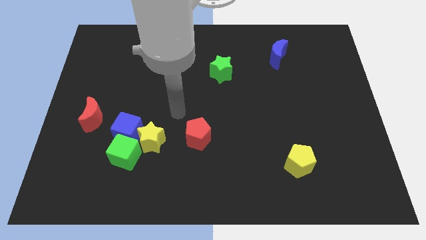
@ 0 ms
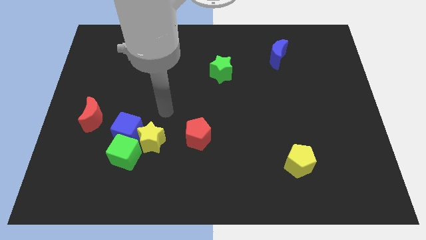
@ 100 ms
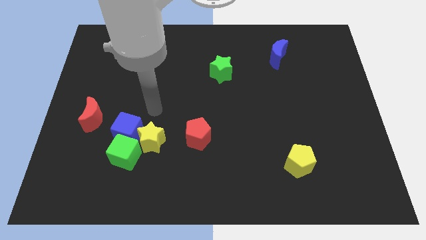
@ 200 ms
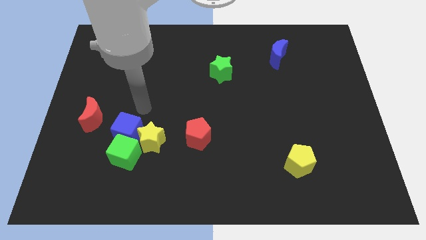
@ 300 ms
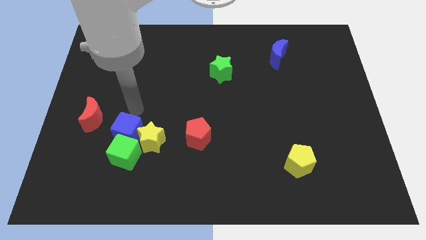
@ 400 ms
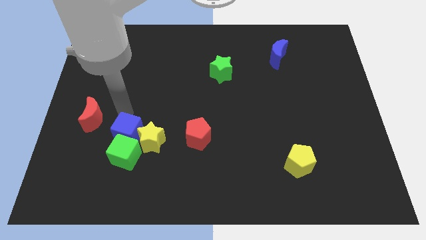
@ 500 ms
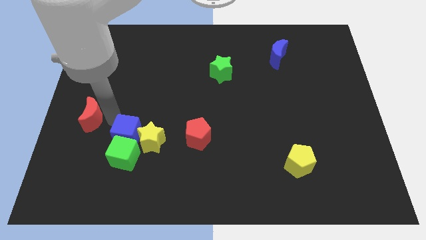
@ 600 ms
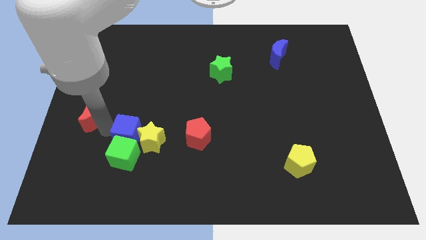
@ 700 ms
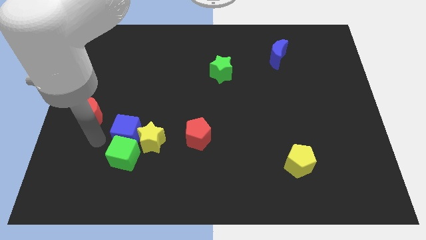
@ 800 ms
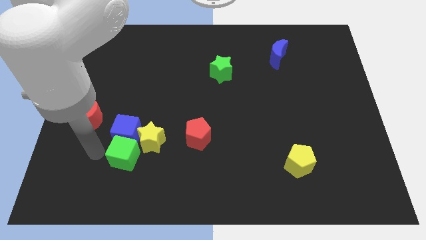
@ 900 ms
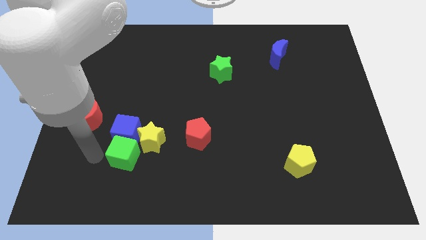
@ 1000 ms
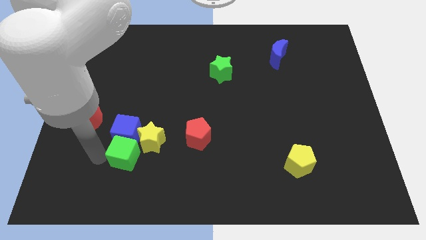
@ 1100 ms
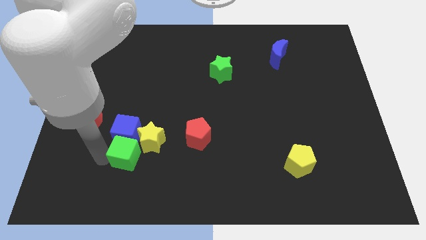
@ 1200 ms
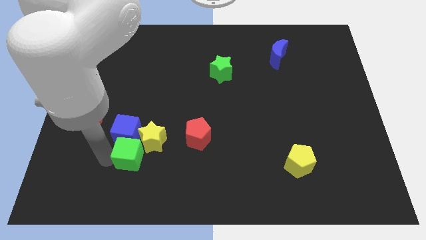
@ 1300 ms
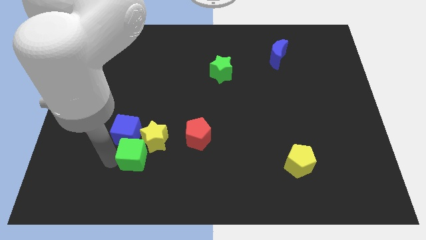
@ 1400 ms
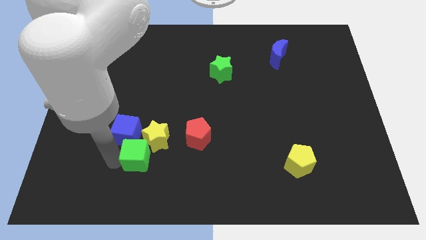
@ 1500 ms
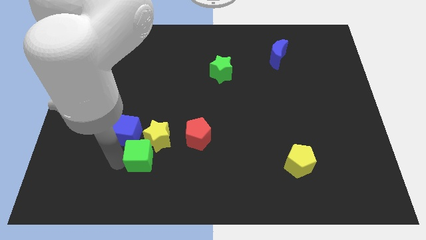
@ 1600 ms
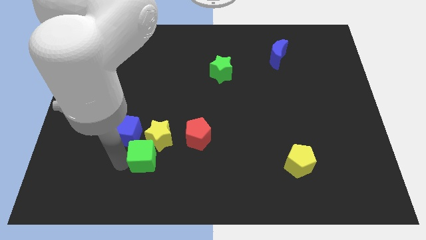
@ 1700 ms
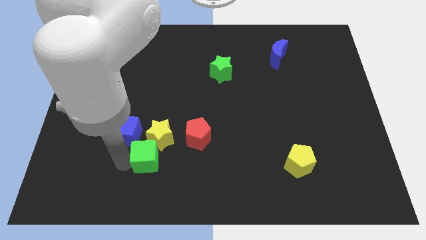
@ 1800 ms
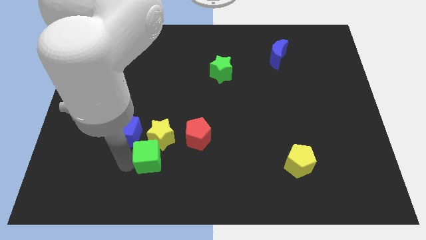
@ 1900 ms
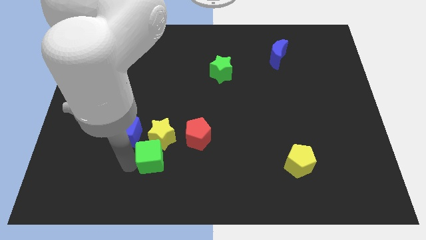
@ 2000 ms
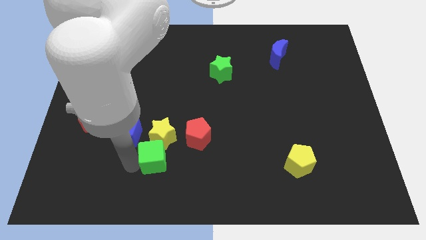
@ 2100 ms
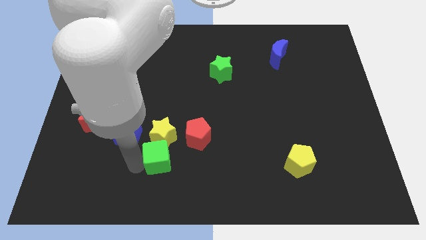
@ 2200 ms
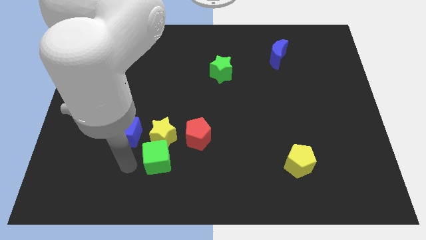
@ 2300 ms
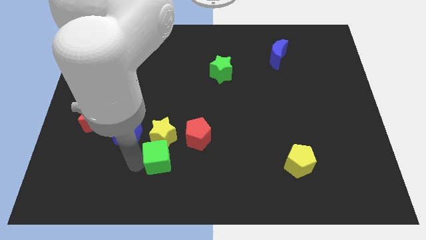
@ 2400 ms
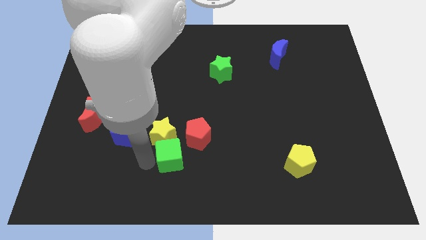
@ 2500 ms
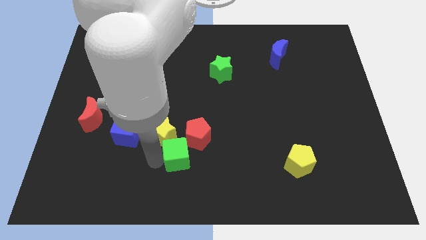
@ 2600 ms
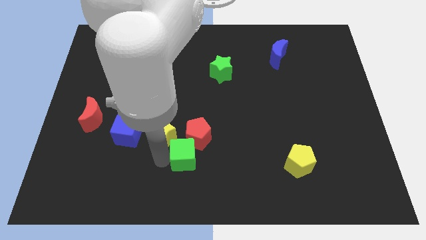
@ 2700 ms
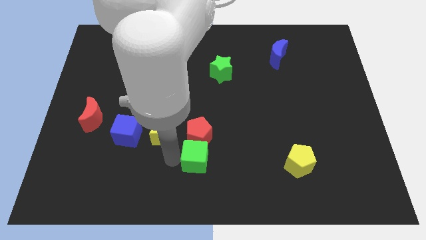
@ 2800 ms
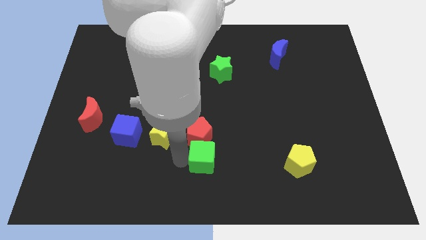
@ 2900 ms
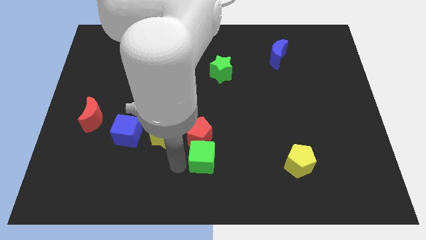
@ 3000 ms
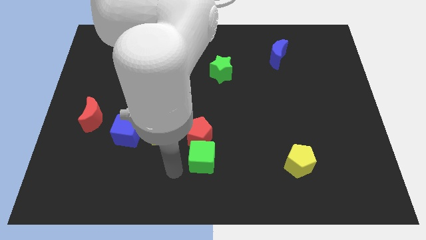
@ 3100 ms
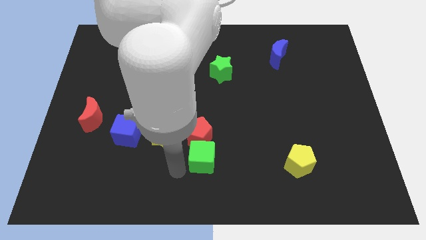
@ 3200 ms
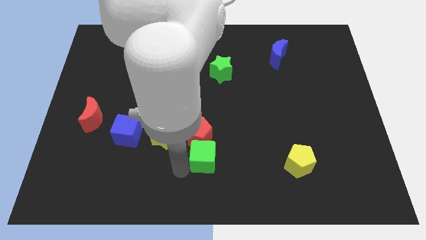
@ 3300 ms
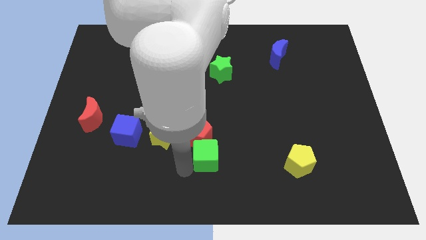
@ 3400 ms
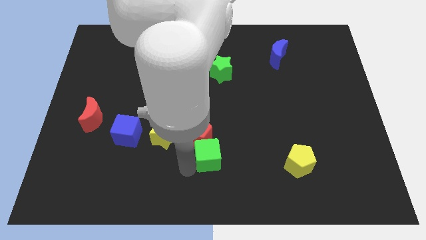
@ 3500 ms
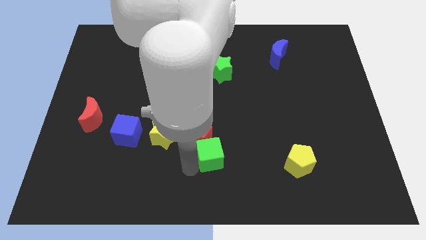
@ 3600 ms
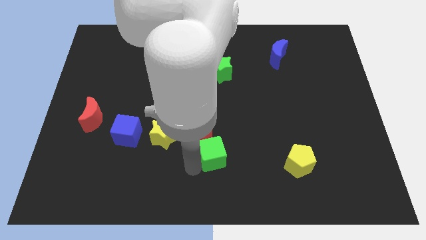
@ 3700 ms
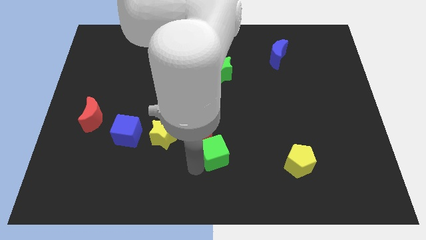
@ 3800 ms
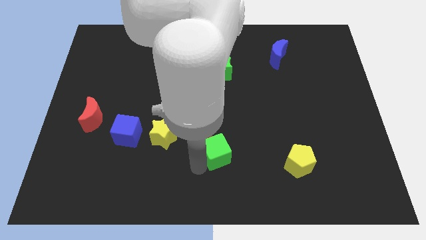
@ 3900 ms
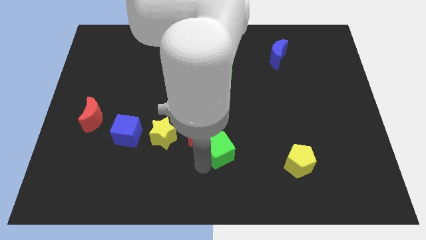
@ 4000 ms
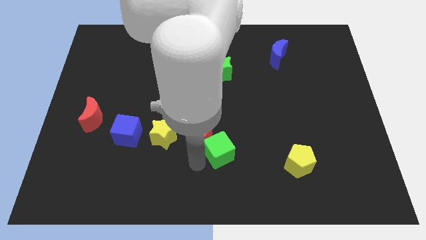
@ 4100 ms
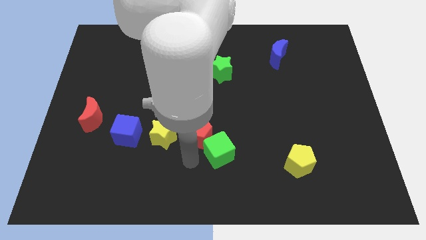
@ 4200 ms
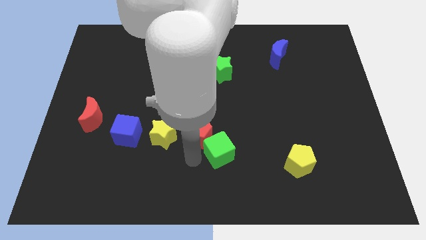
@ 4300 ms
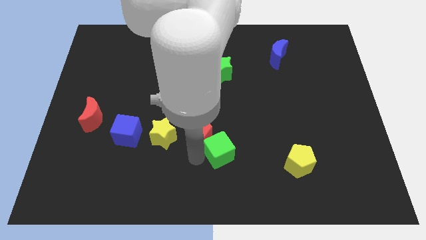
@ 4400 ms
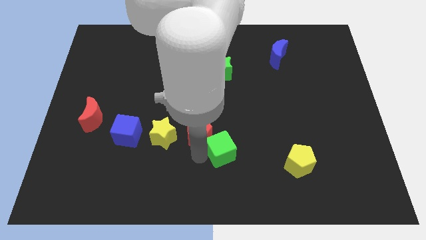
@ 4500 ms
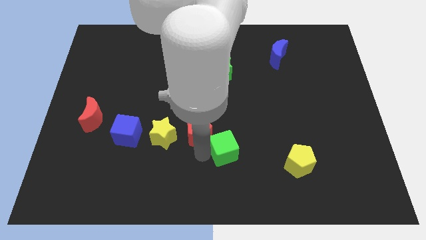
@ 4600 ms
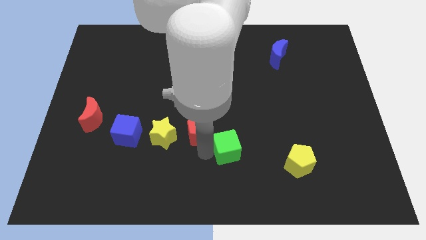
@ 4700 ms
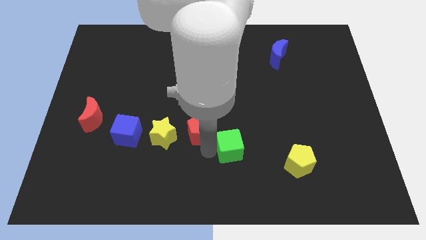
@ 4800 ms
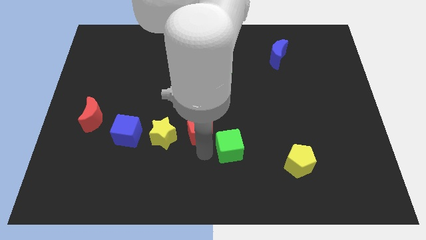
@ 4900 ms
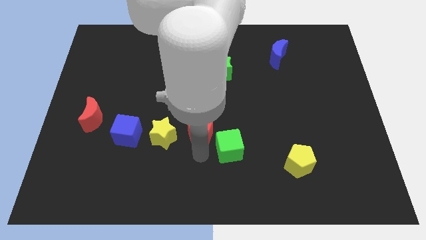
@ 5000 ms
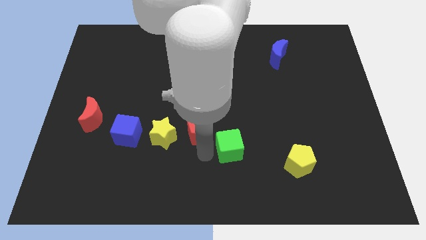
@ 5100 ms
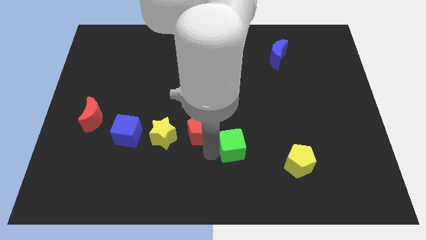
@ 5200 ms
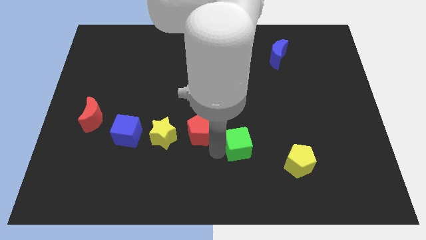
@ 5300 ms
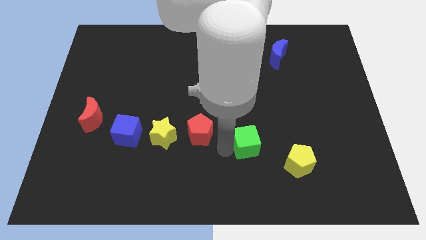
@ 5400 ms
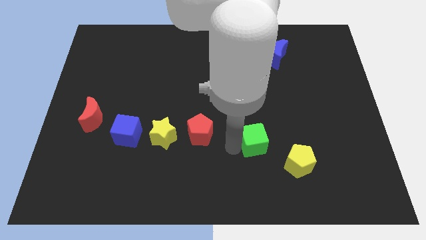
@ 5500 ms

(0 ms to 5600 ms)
slide the green cube diagonally up and to the left of the yellow pentagon

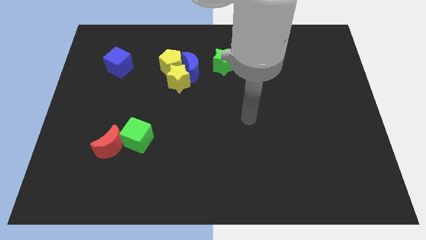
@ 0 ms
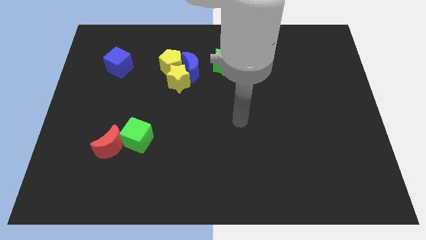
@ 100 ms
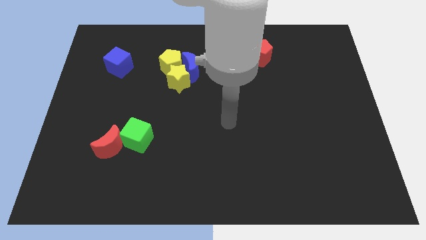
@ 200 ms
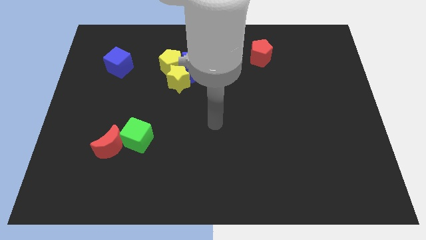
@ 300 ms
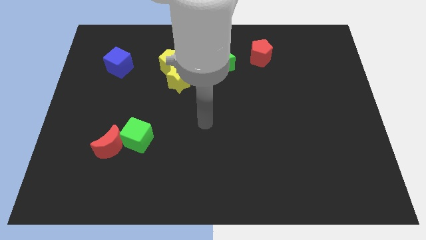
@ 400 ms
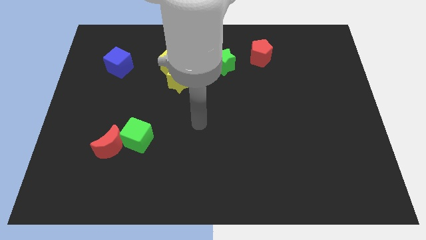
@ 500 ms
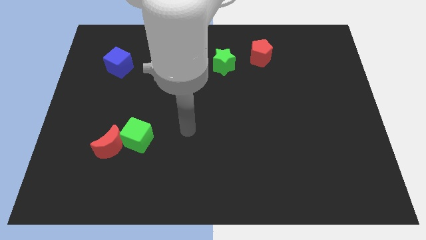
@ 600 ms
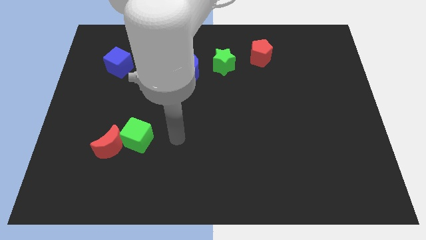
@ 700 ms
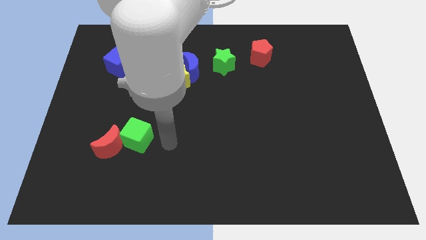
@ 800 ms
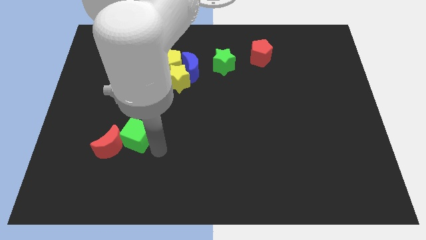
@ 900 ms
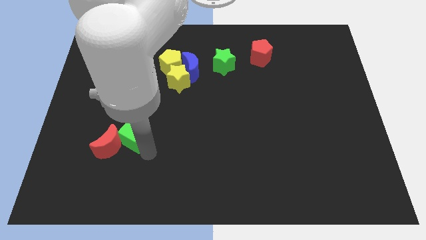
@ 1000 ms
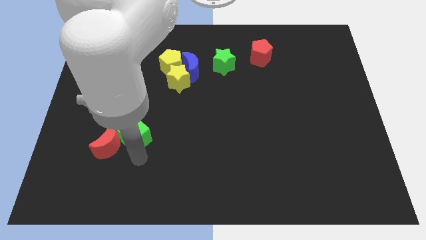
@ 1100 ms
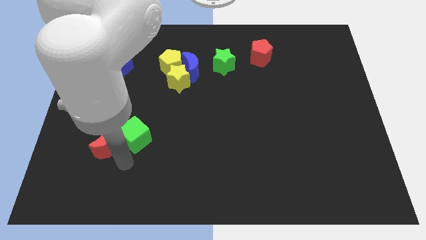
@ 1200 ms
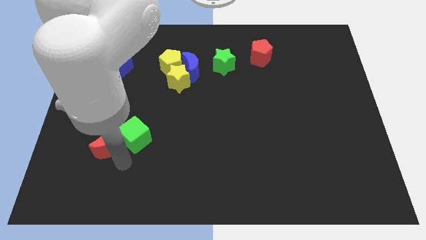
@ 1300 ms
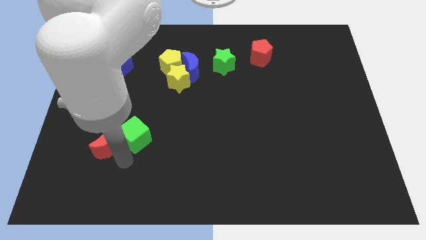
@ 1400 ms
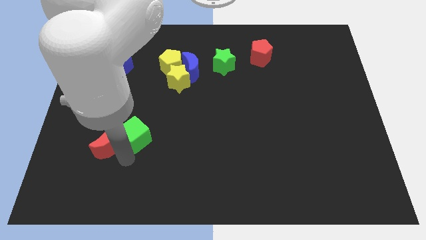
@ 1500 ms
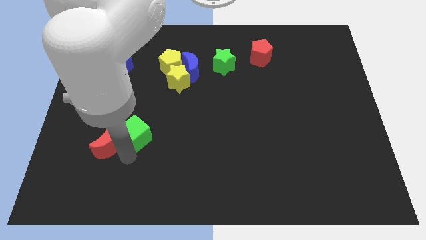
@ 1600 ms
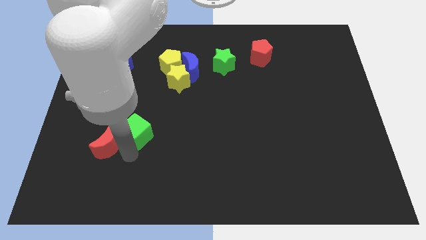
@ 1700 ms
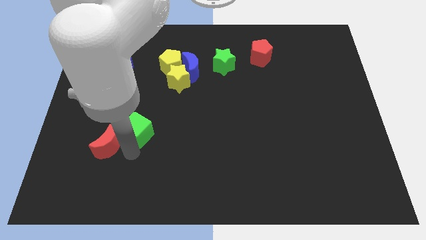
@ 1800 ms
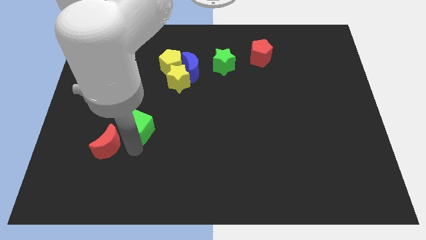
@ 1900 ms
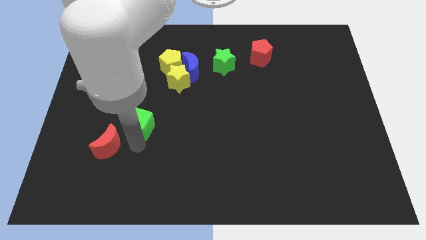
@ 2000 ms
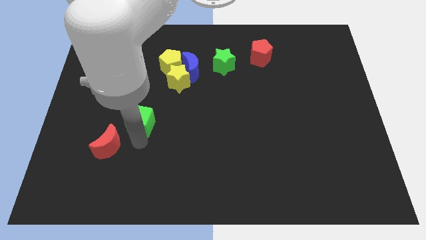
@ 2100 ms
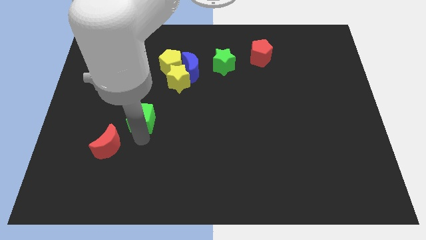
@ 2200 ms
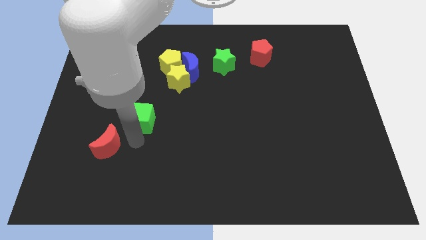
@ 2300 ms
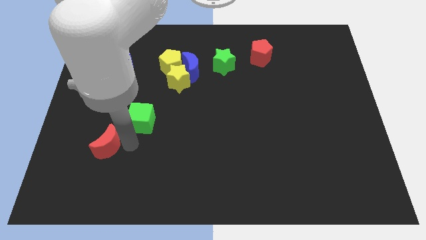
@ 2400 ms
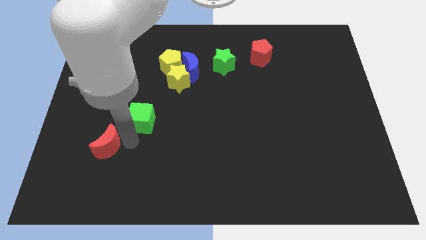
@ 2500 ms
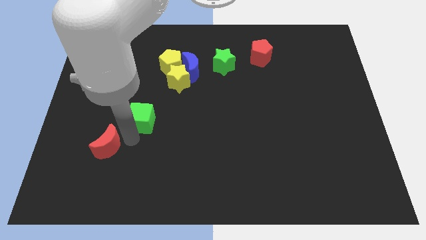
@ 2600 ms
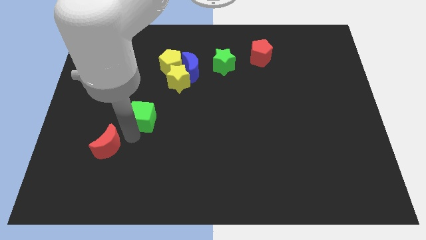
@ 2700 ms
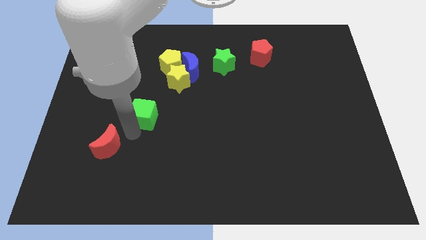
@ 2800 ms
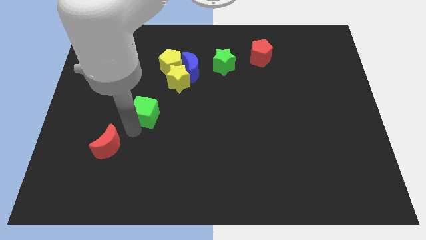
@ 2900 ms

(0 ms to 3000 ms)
push the green cube diagonally down and to the left of the yellow star

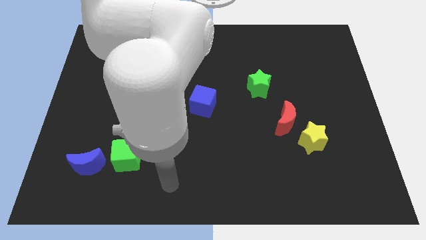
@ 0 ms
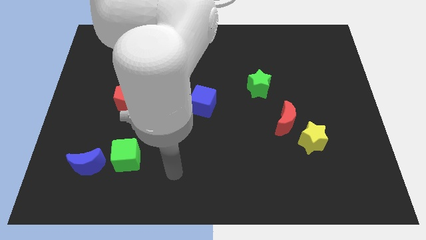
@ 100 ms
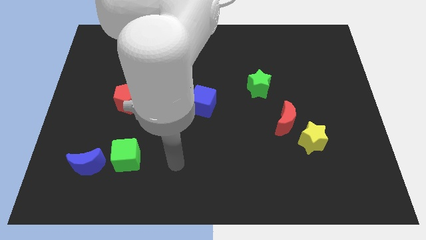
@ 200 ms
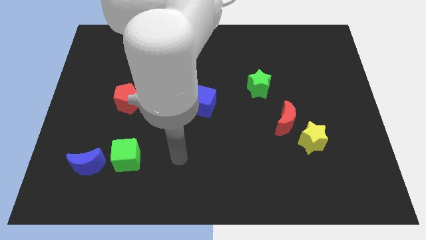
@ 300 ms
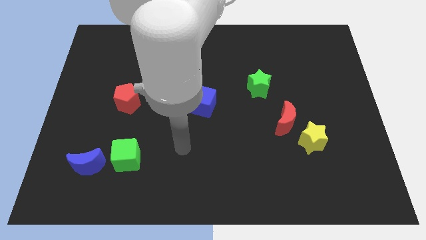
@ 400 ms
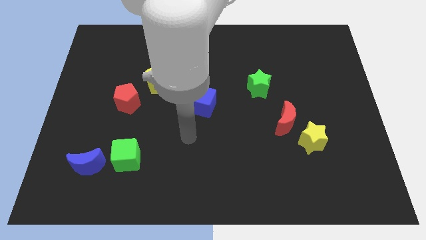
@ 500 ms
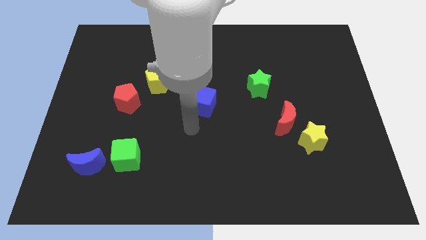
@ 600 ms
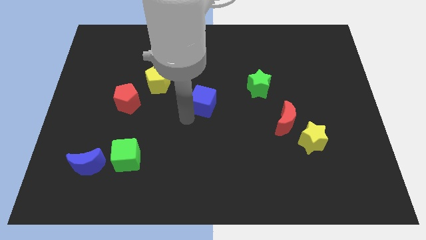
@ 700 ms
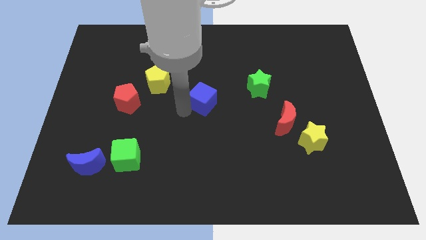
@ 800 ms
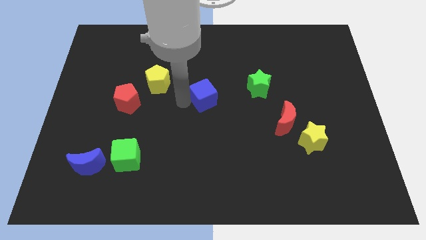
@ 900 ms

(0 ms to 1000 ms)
slide the yellow pentagon just left of the blue cube
